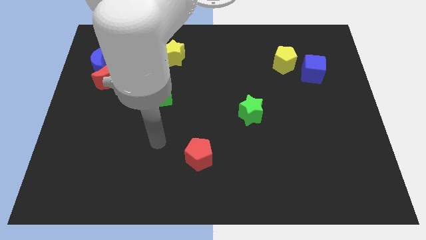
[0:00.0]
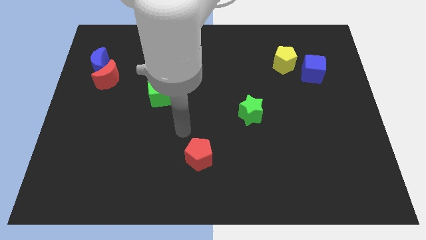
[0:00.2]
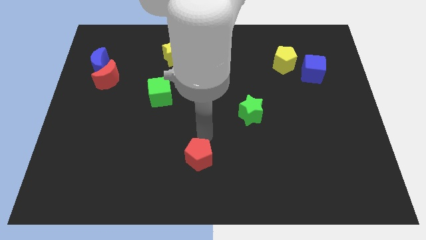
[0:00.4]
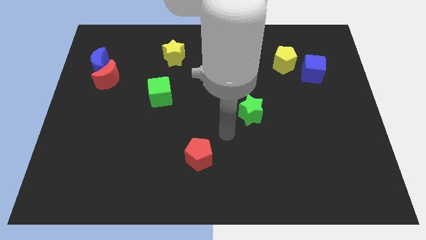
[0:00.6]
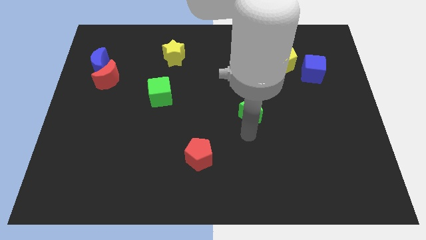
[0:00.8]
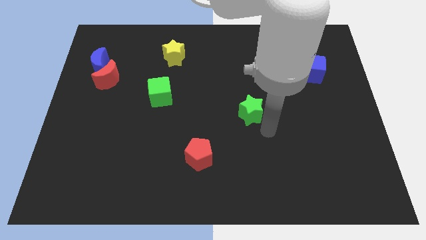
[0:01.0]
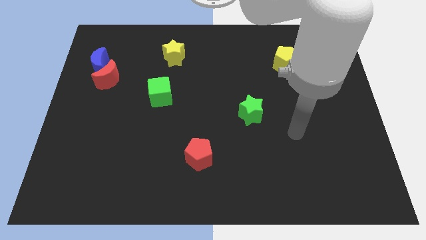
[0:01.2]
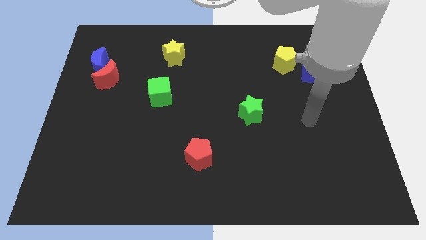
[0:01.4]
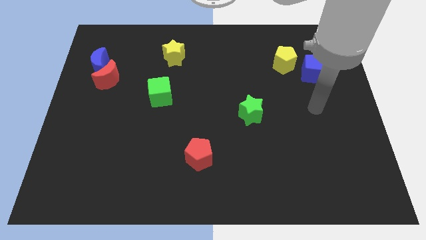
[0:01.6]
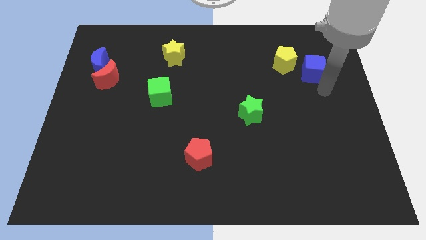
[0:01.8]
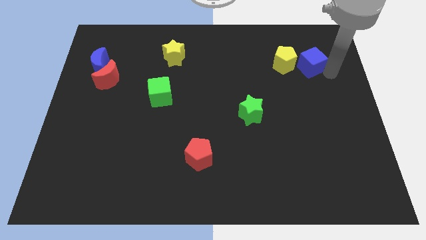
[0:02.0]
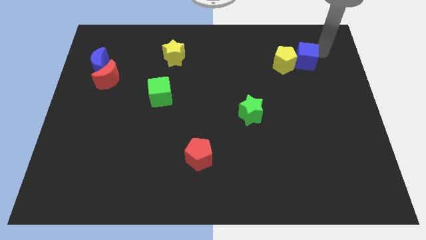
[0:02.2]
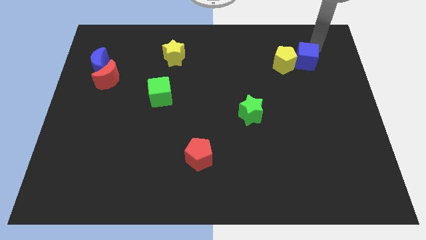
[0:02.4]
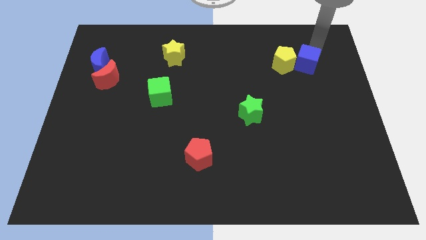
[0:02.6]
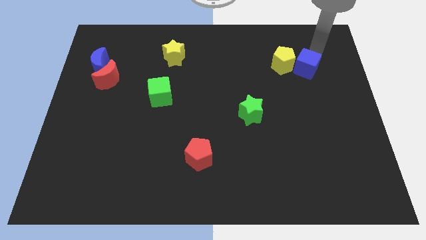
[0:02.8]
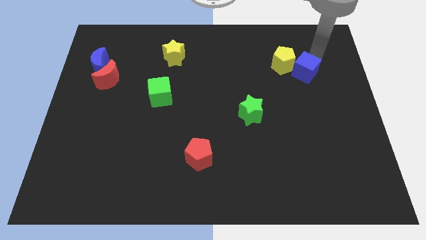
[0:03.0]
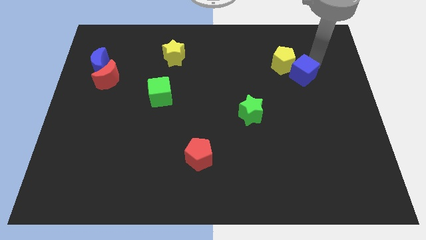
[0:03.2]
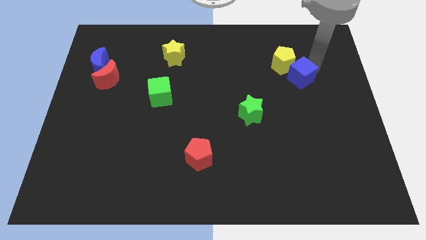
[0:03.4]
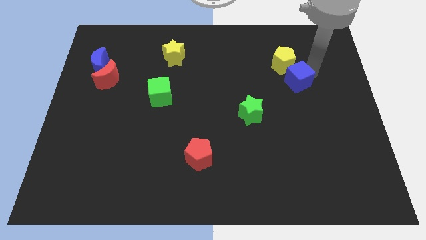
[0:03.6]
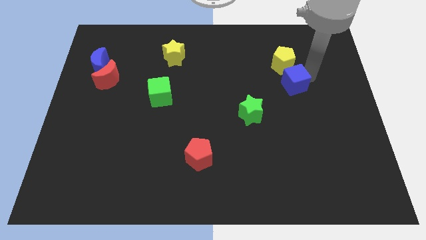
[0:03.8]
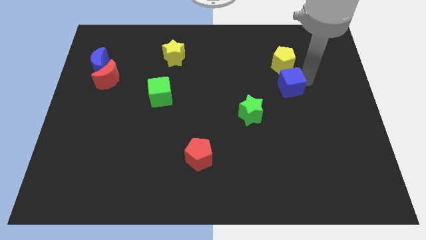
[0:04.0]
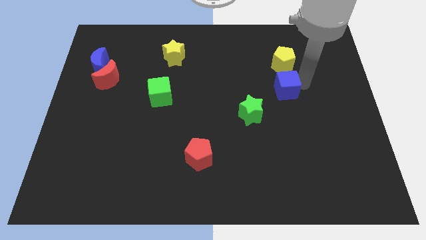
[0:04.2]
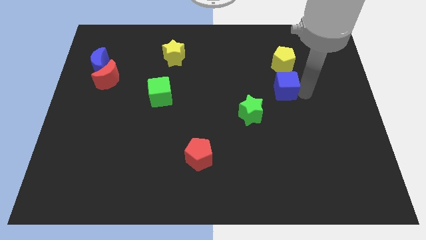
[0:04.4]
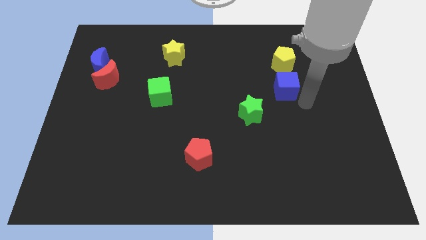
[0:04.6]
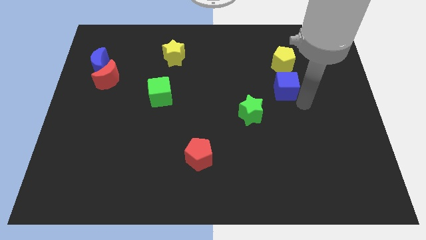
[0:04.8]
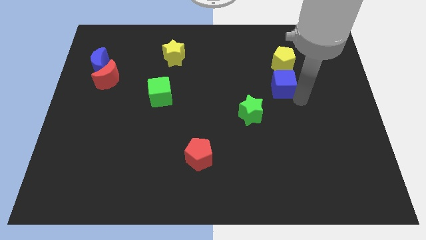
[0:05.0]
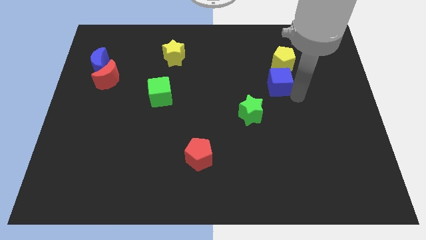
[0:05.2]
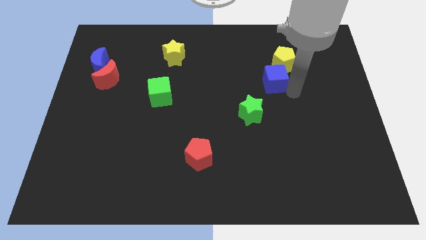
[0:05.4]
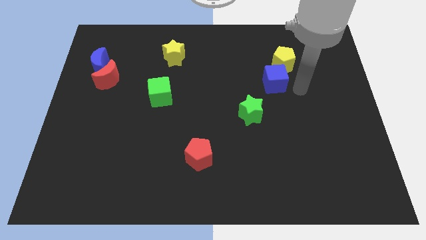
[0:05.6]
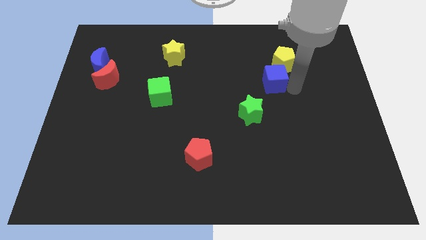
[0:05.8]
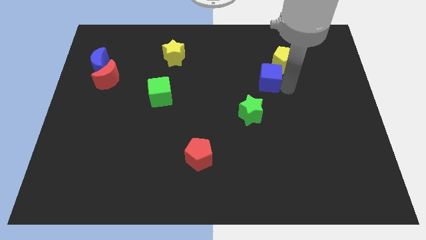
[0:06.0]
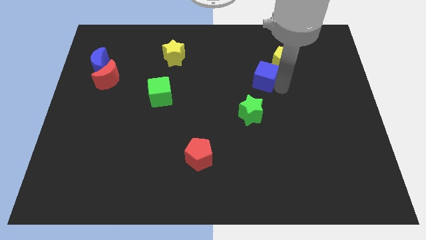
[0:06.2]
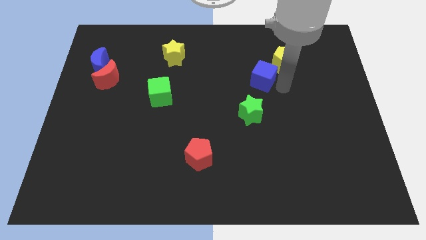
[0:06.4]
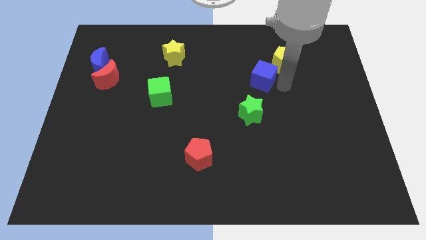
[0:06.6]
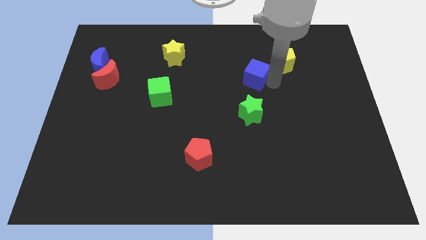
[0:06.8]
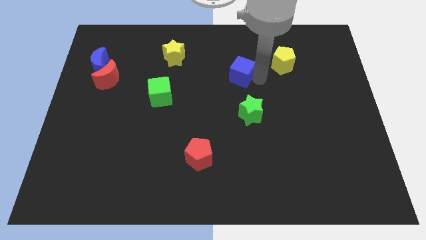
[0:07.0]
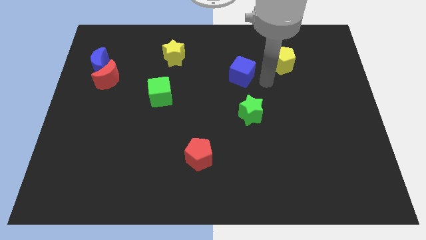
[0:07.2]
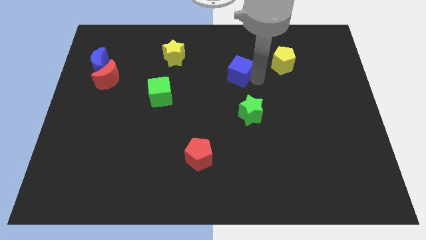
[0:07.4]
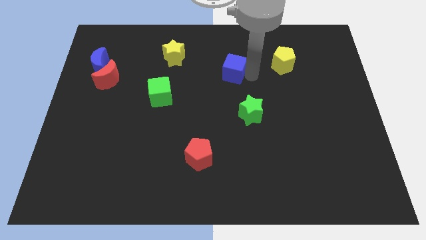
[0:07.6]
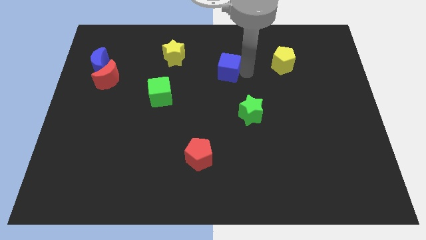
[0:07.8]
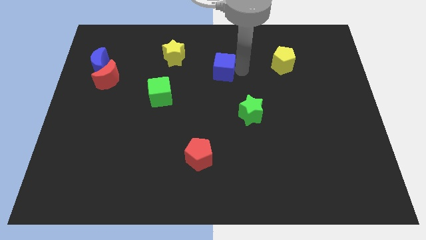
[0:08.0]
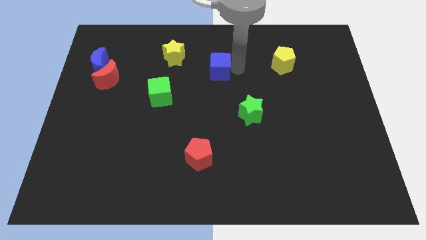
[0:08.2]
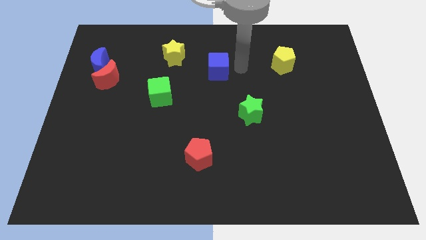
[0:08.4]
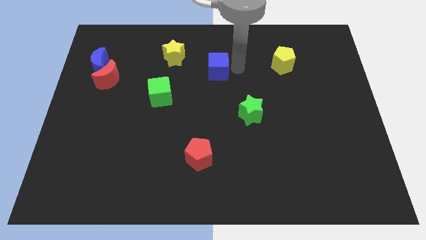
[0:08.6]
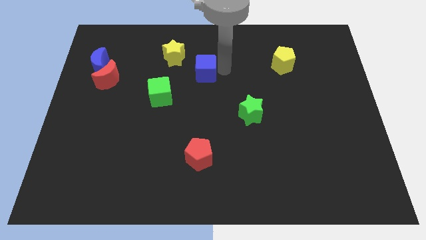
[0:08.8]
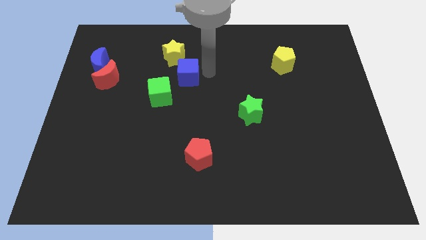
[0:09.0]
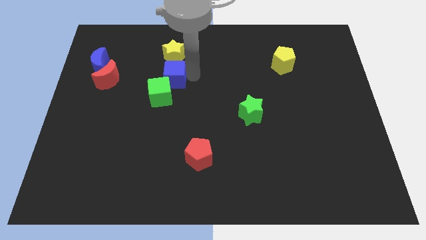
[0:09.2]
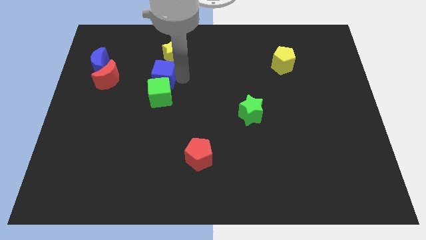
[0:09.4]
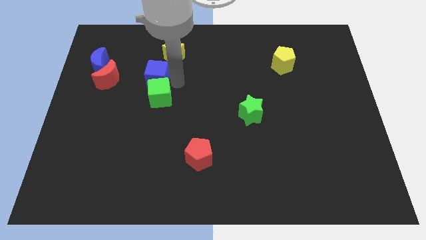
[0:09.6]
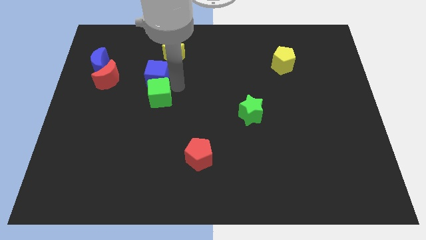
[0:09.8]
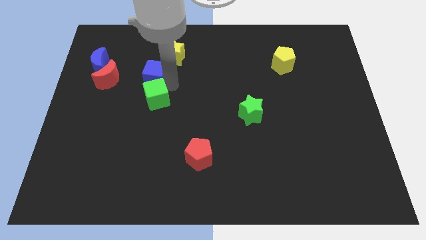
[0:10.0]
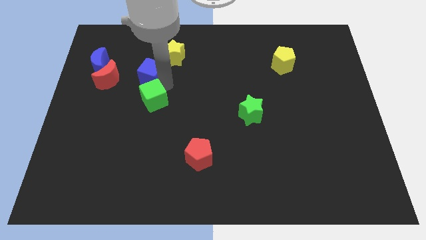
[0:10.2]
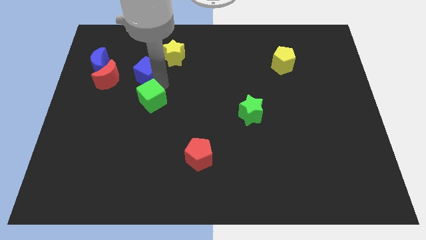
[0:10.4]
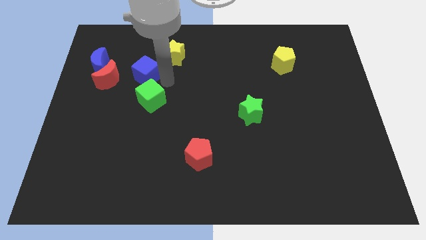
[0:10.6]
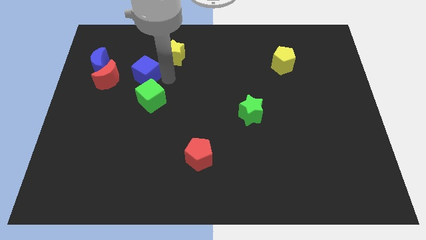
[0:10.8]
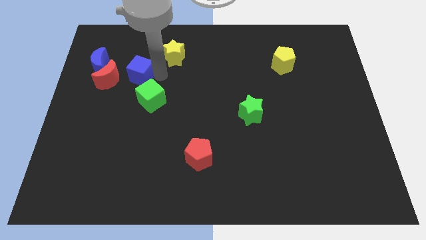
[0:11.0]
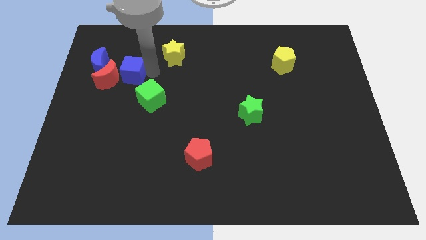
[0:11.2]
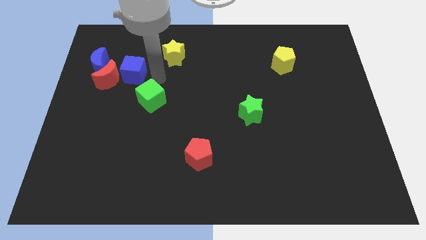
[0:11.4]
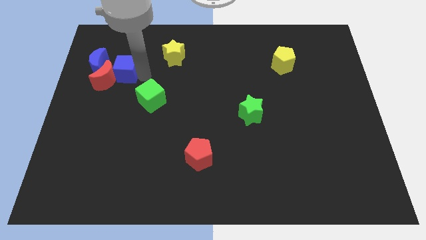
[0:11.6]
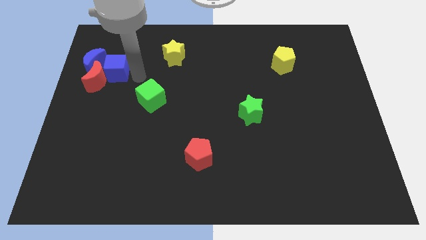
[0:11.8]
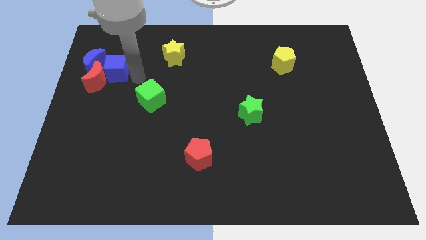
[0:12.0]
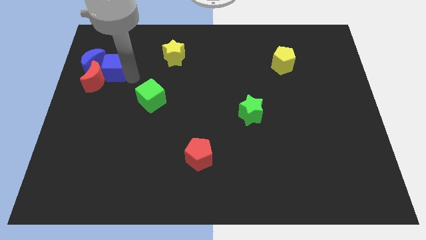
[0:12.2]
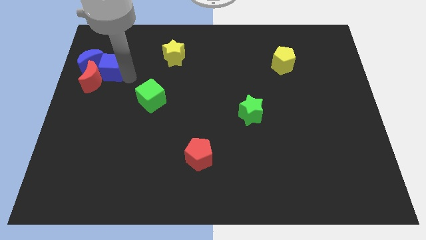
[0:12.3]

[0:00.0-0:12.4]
put the blue cube close to the blue moon
